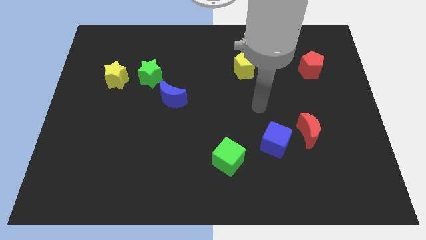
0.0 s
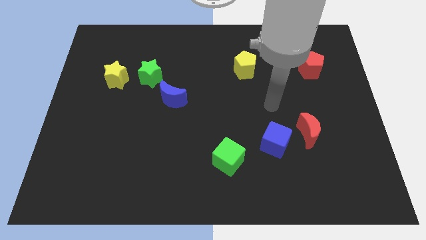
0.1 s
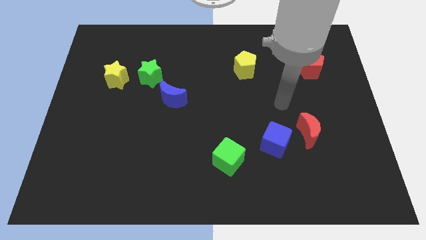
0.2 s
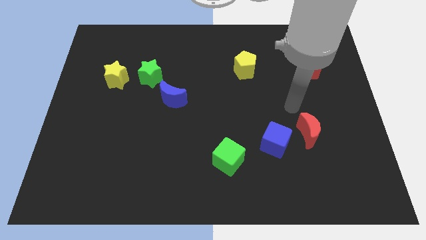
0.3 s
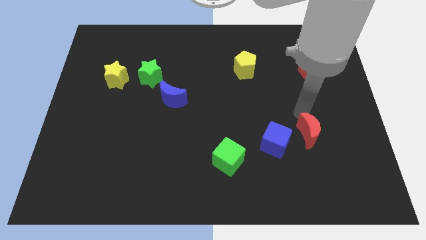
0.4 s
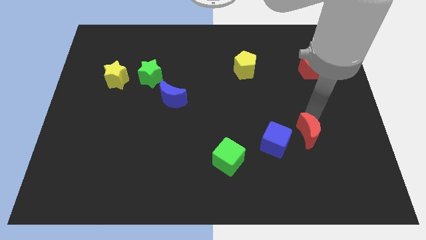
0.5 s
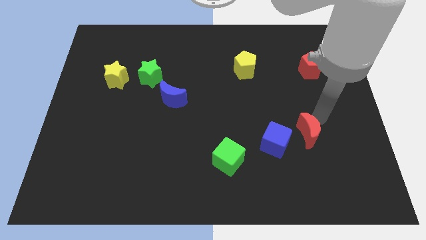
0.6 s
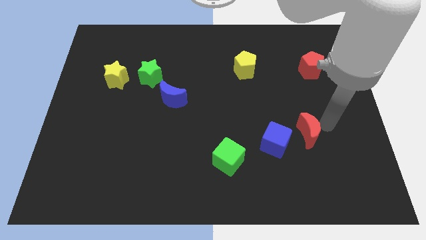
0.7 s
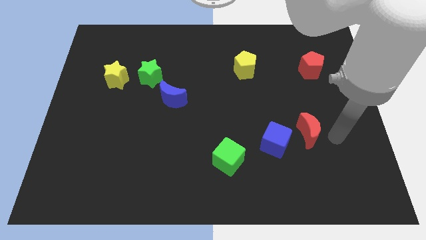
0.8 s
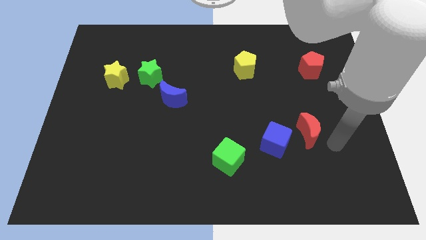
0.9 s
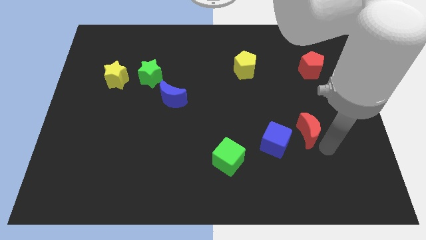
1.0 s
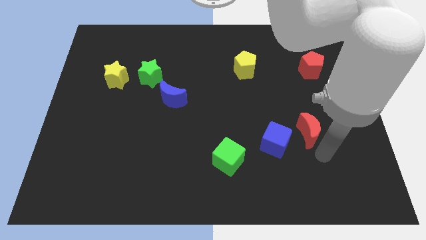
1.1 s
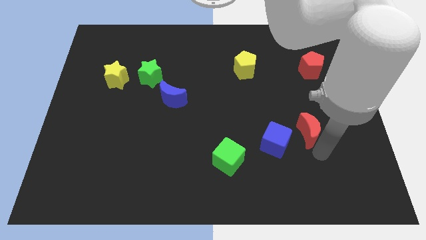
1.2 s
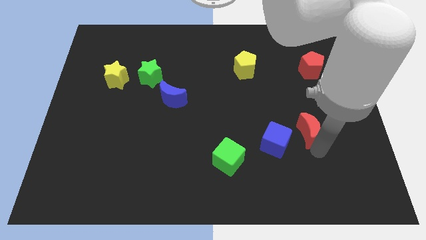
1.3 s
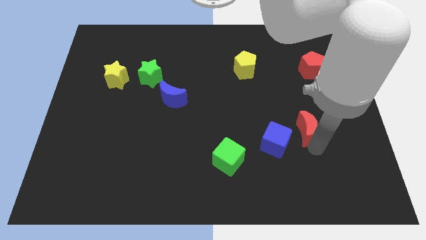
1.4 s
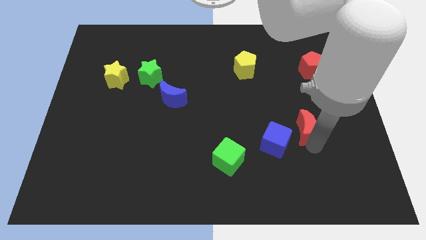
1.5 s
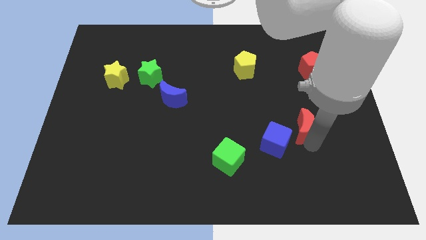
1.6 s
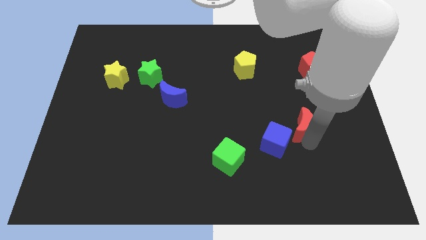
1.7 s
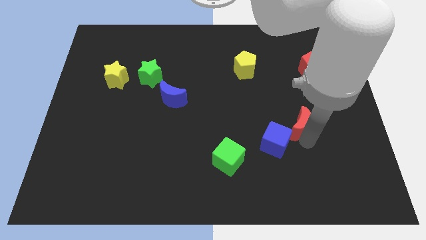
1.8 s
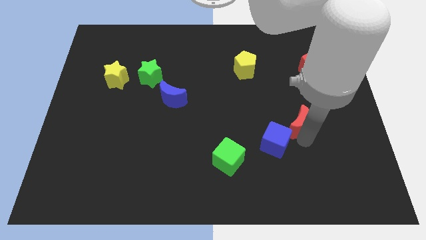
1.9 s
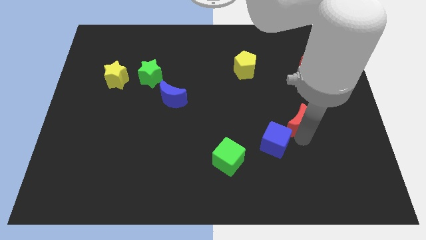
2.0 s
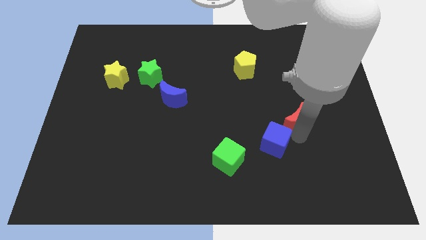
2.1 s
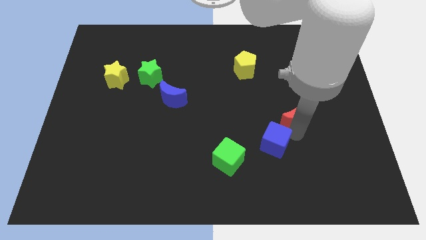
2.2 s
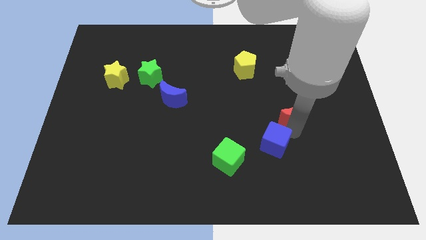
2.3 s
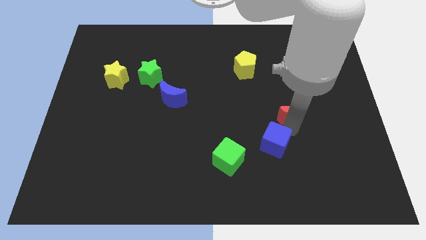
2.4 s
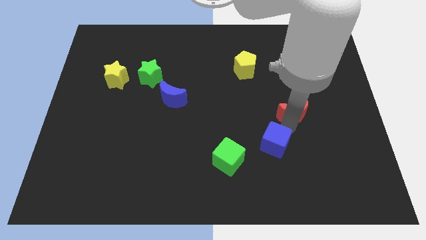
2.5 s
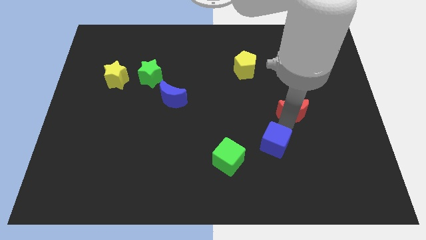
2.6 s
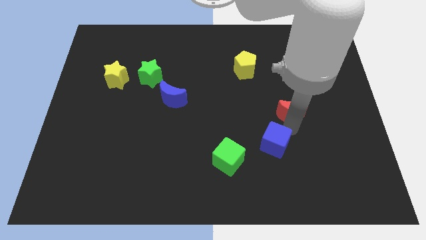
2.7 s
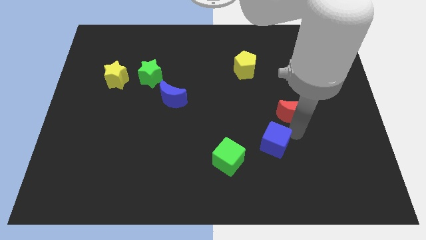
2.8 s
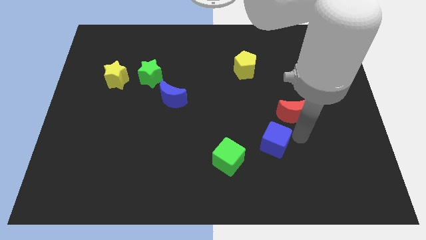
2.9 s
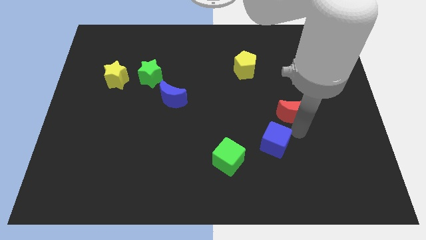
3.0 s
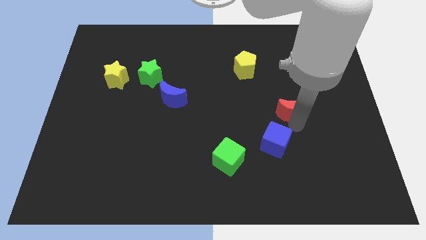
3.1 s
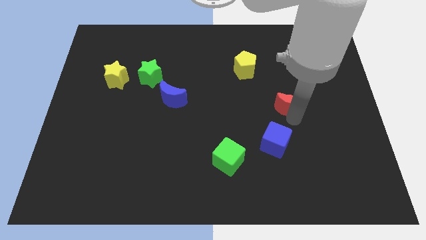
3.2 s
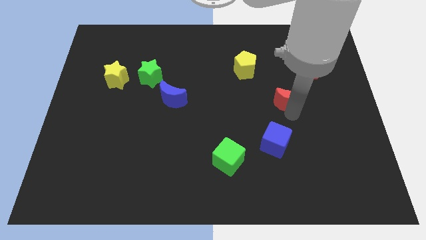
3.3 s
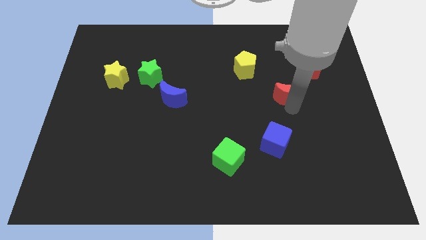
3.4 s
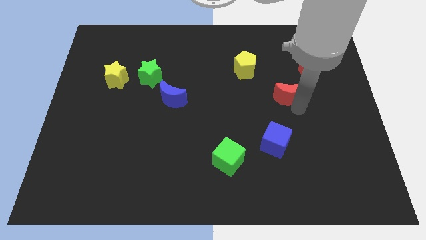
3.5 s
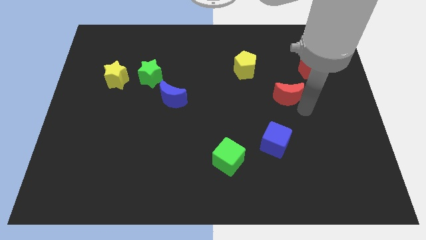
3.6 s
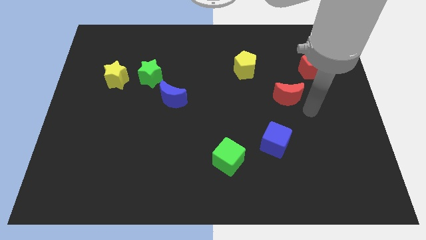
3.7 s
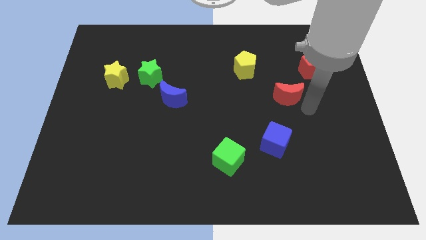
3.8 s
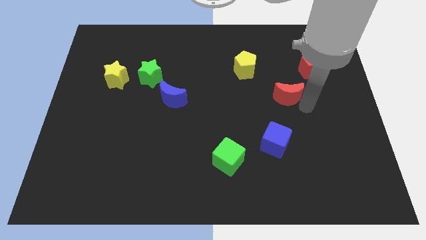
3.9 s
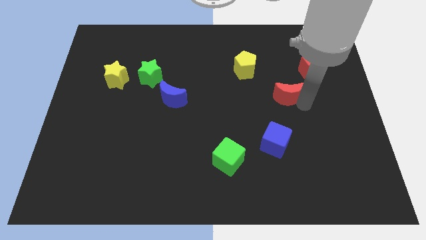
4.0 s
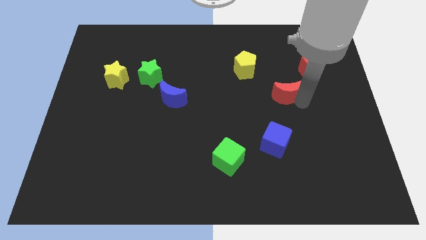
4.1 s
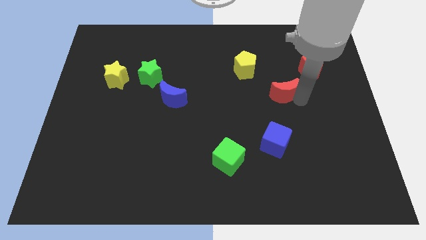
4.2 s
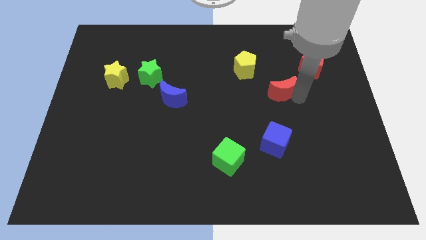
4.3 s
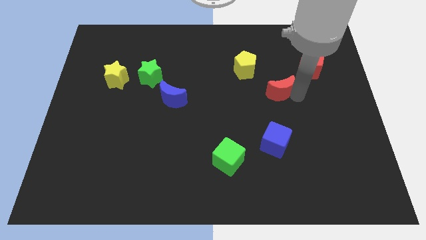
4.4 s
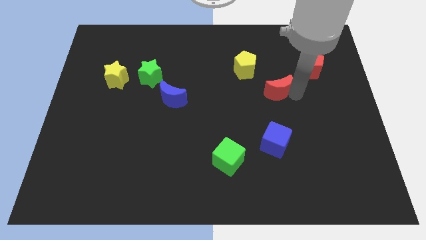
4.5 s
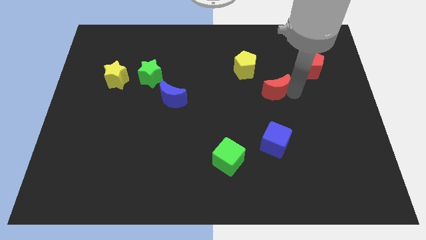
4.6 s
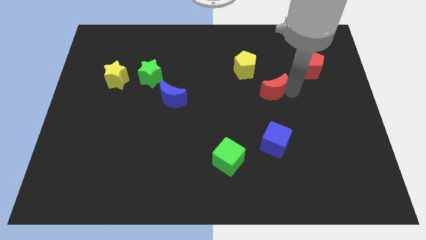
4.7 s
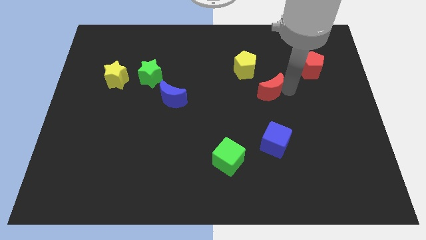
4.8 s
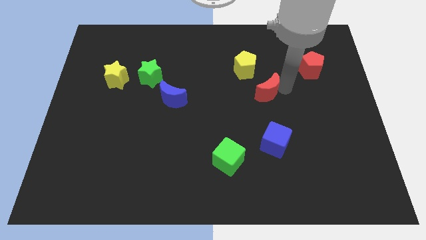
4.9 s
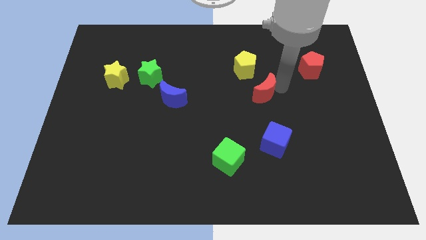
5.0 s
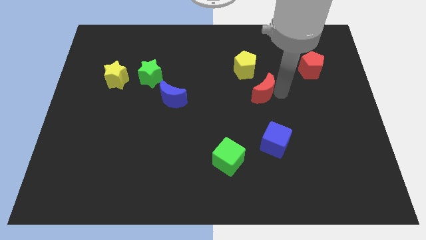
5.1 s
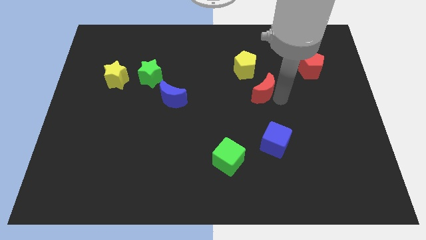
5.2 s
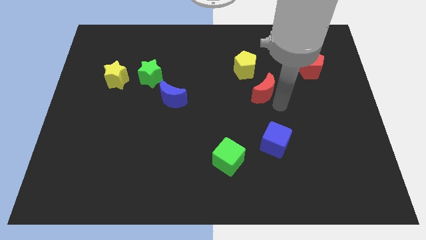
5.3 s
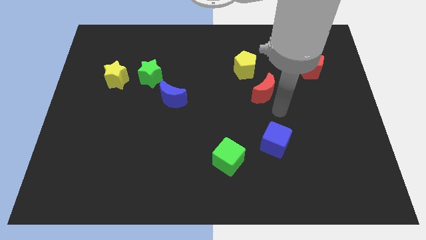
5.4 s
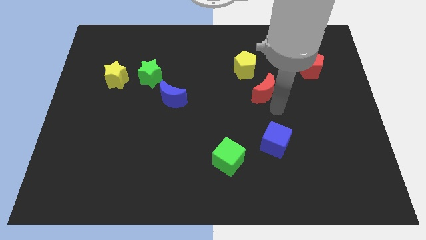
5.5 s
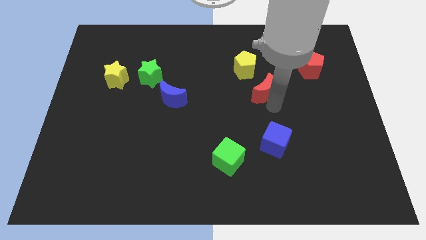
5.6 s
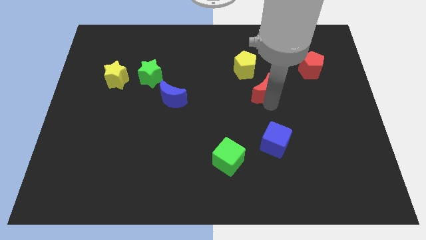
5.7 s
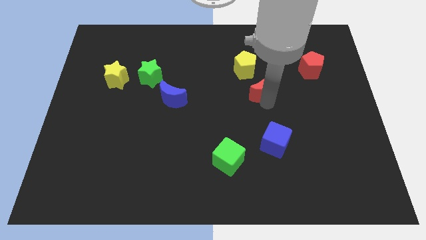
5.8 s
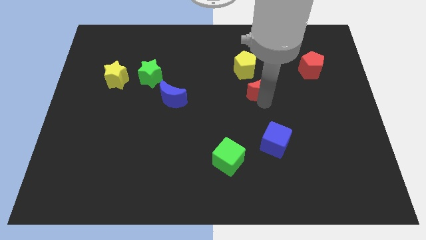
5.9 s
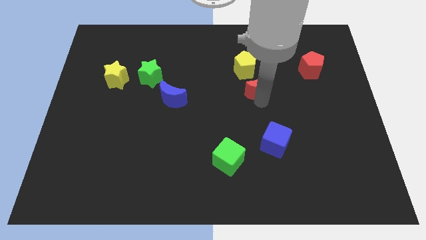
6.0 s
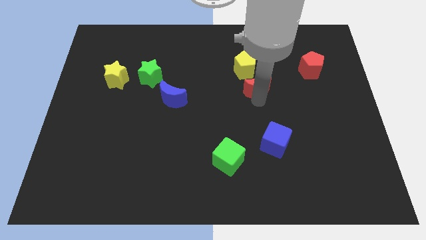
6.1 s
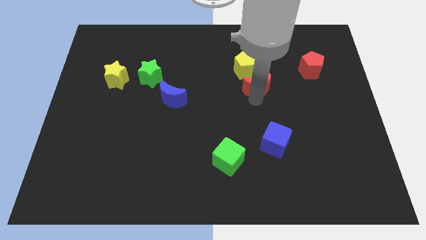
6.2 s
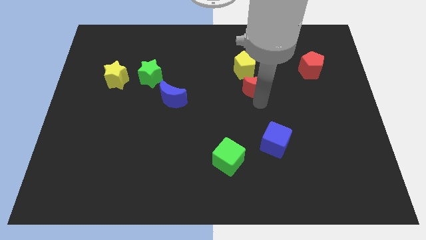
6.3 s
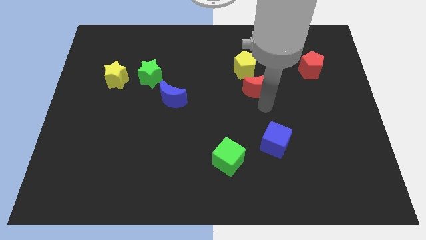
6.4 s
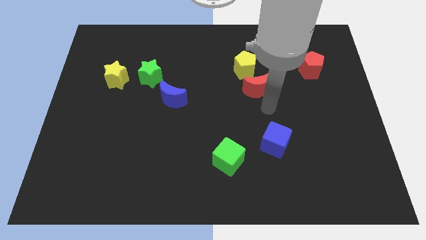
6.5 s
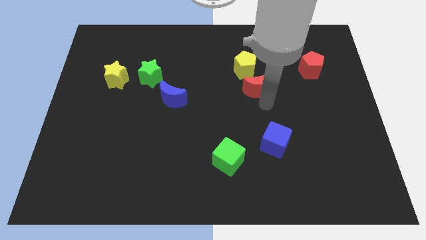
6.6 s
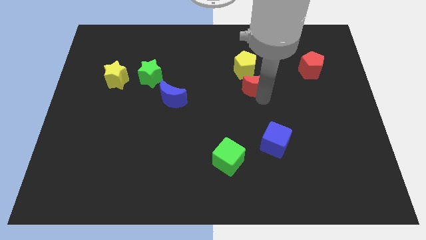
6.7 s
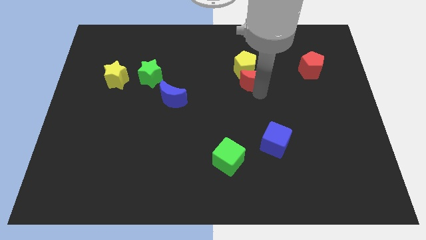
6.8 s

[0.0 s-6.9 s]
put the red moon towards the yellow pentagon
